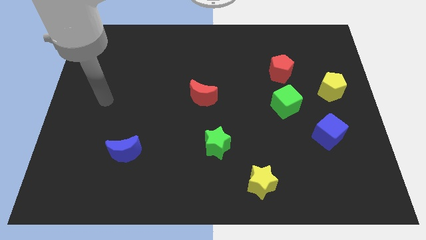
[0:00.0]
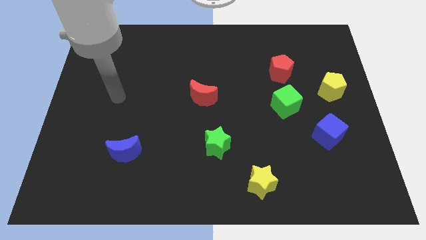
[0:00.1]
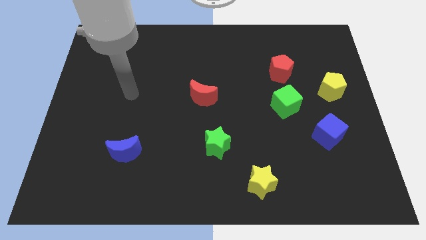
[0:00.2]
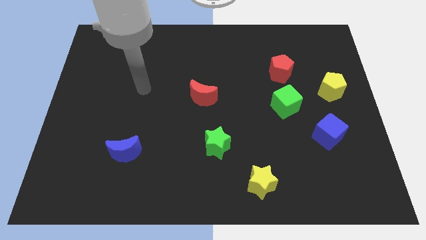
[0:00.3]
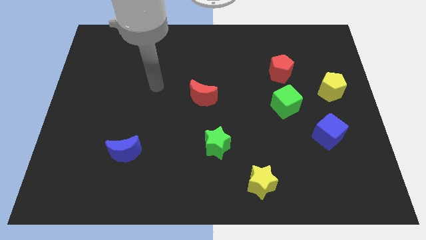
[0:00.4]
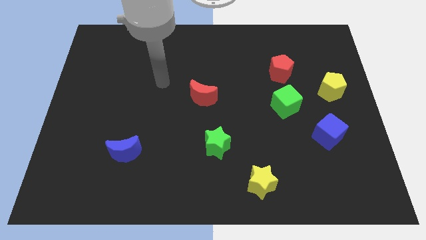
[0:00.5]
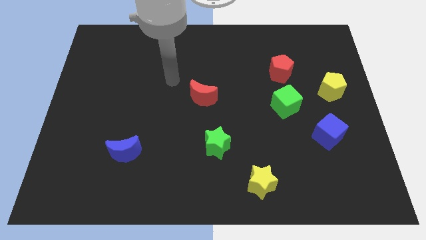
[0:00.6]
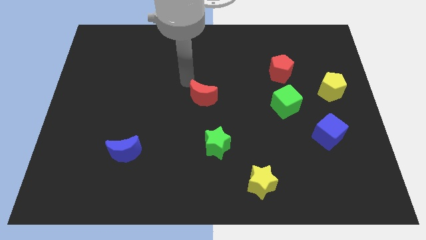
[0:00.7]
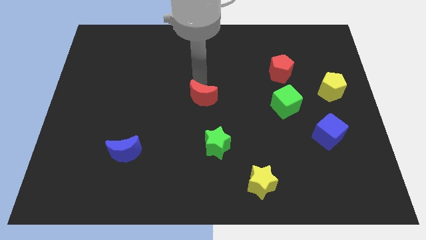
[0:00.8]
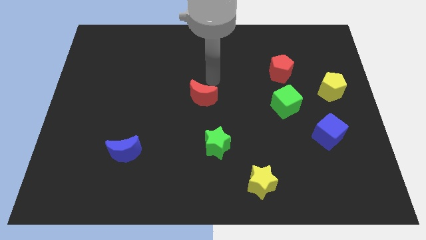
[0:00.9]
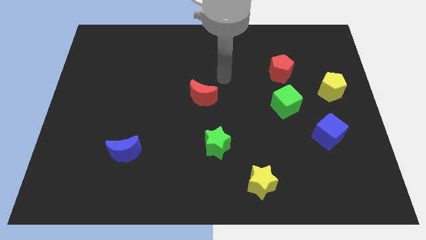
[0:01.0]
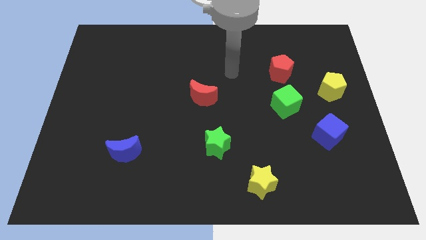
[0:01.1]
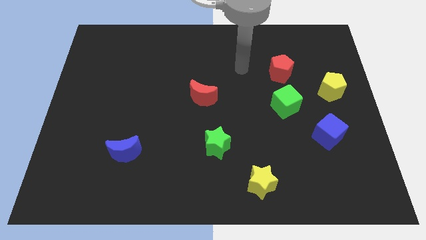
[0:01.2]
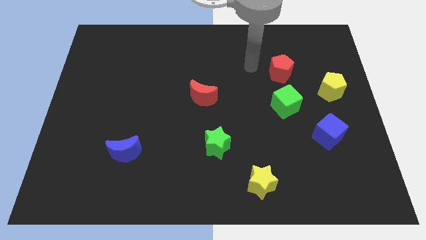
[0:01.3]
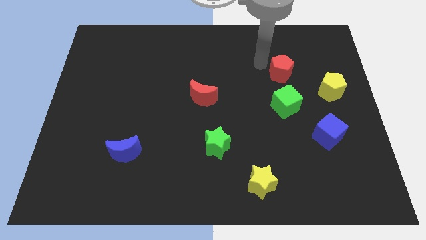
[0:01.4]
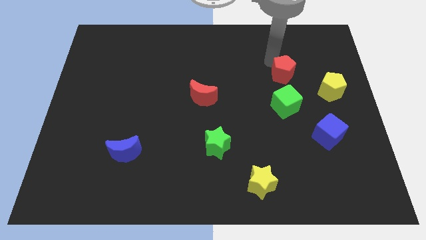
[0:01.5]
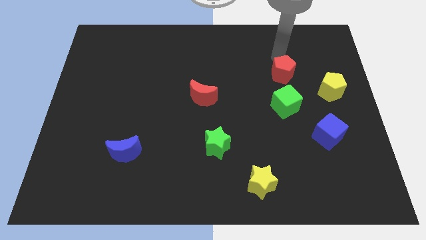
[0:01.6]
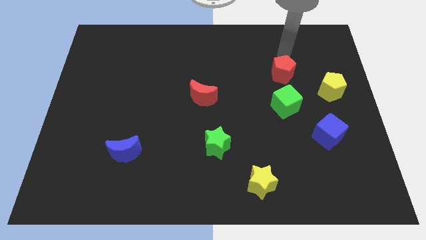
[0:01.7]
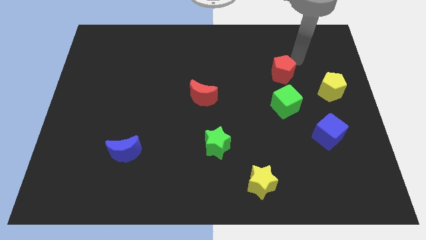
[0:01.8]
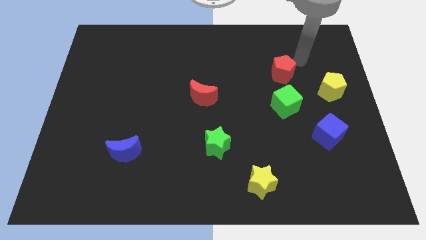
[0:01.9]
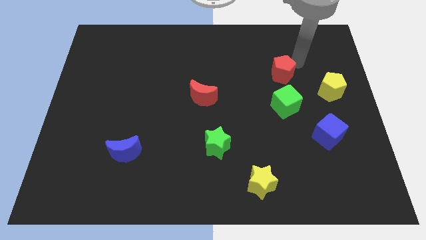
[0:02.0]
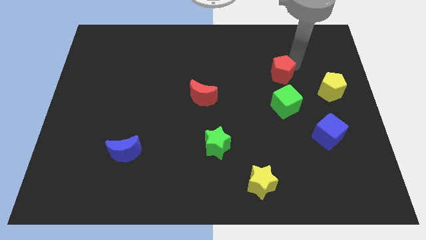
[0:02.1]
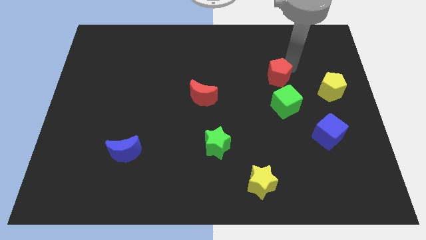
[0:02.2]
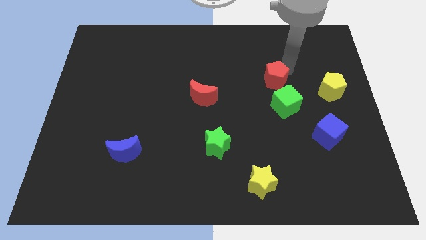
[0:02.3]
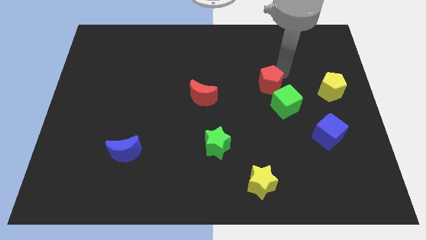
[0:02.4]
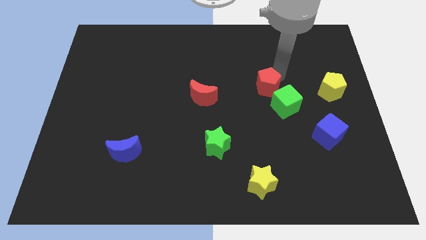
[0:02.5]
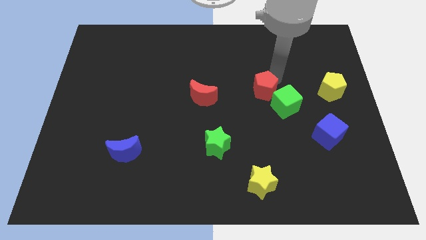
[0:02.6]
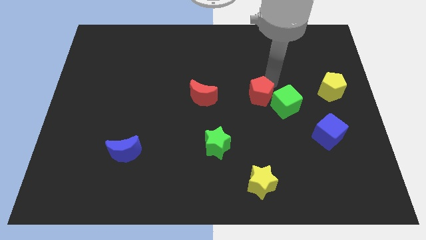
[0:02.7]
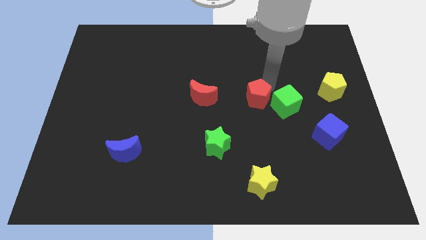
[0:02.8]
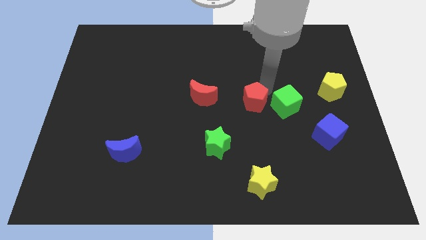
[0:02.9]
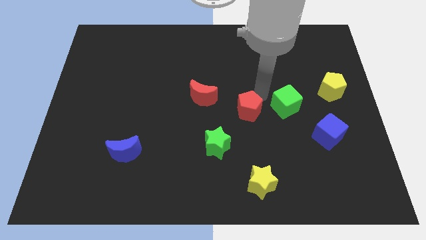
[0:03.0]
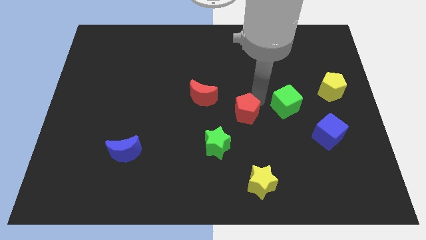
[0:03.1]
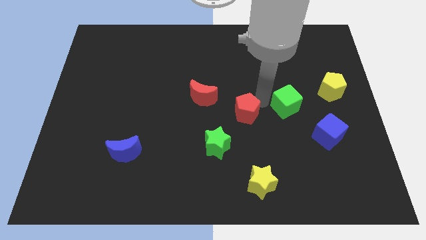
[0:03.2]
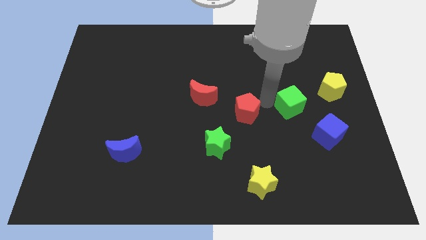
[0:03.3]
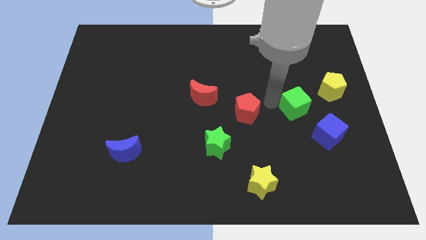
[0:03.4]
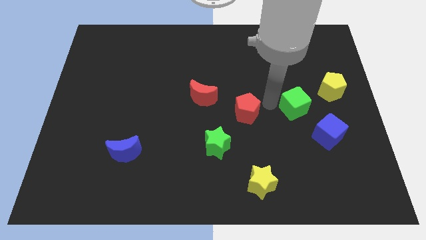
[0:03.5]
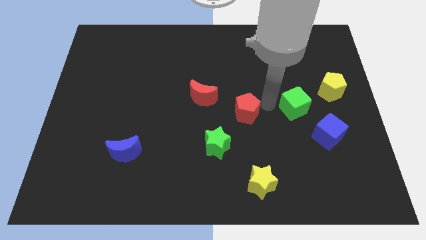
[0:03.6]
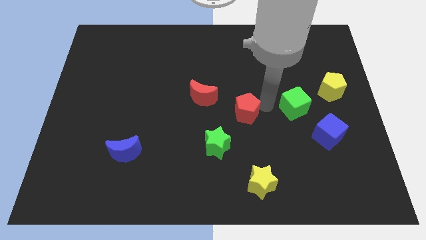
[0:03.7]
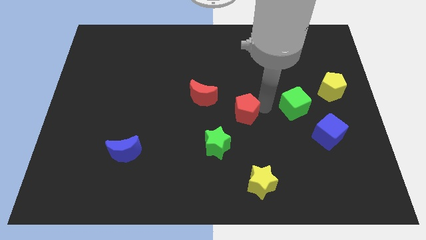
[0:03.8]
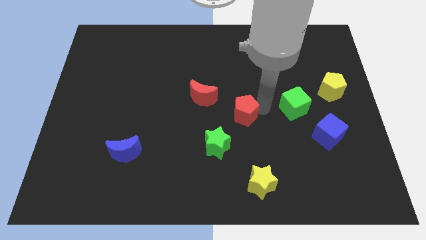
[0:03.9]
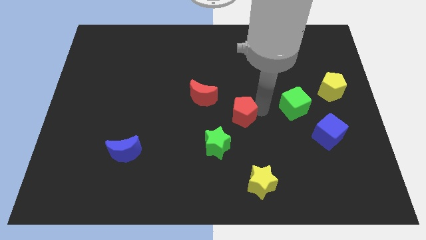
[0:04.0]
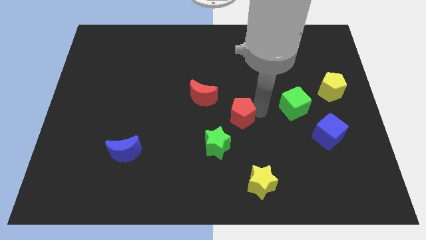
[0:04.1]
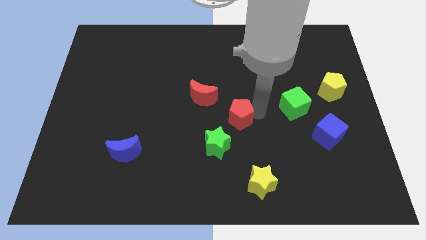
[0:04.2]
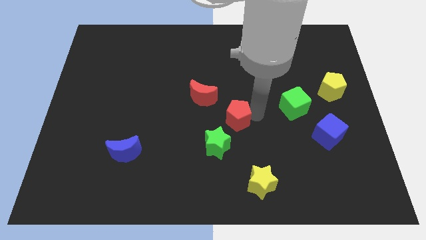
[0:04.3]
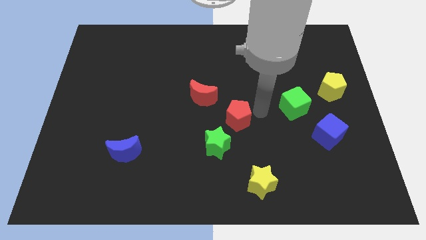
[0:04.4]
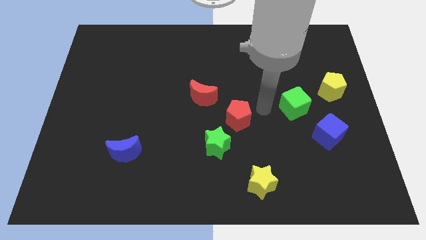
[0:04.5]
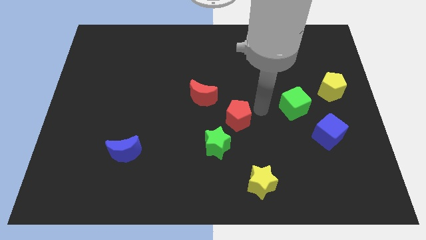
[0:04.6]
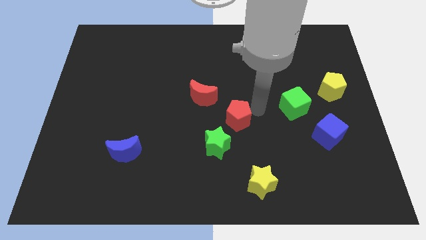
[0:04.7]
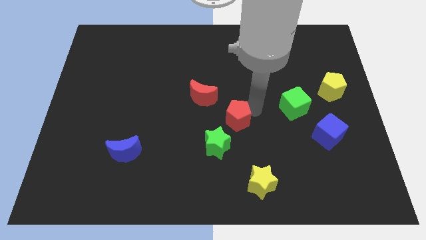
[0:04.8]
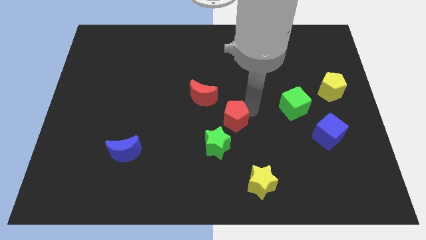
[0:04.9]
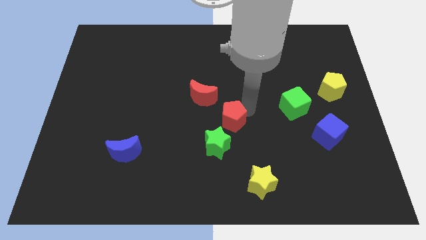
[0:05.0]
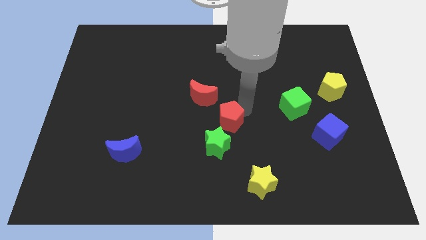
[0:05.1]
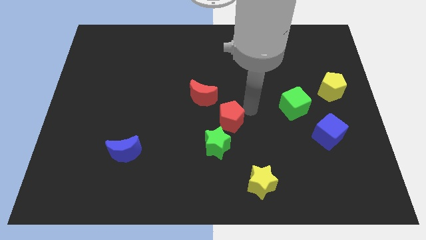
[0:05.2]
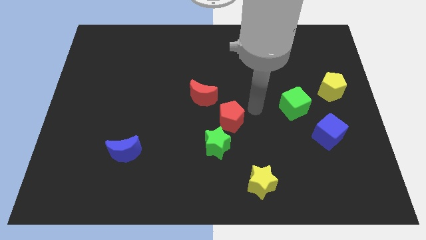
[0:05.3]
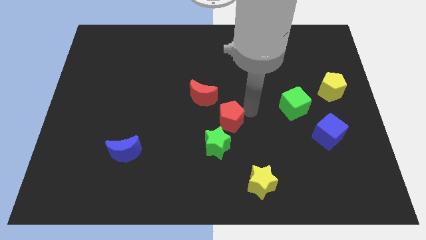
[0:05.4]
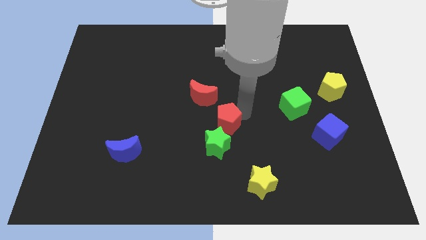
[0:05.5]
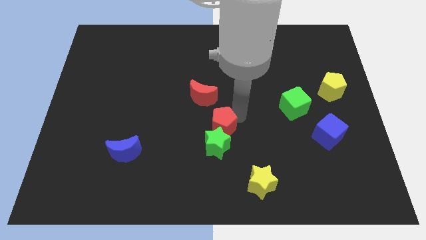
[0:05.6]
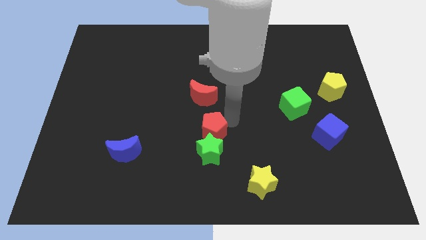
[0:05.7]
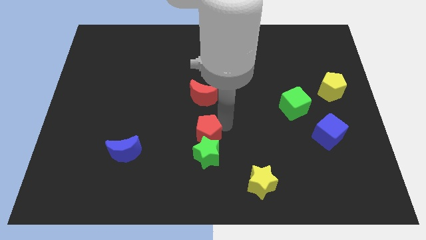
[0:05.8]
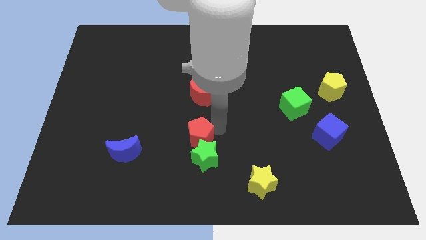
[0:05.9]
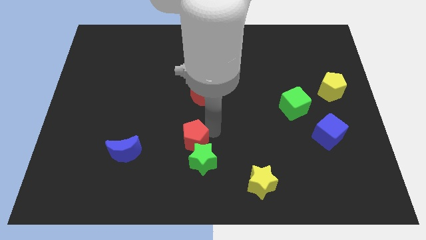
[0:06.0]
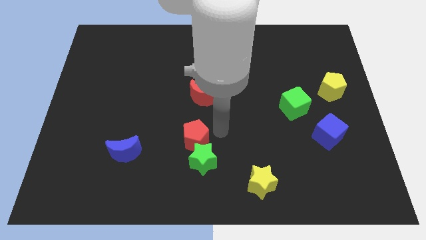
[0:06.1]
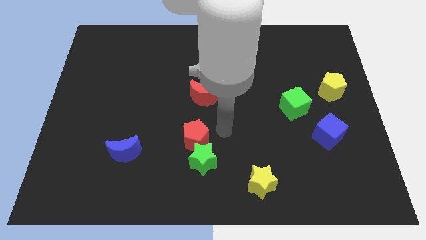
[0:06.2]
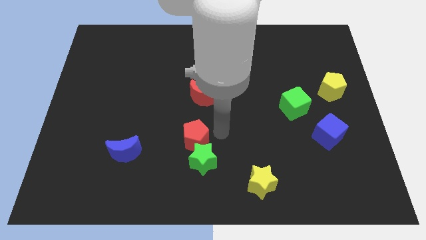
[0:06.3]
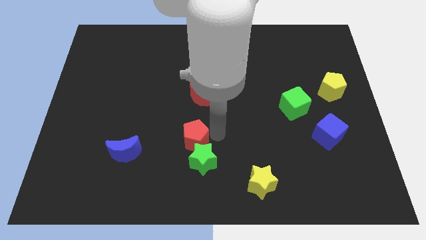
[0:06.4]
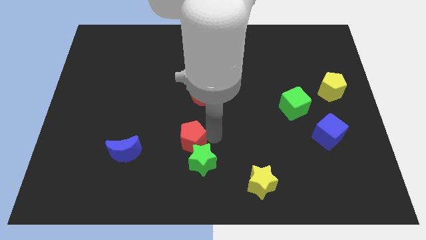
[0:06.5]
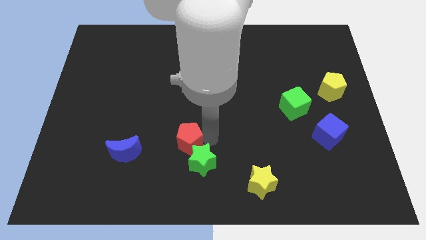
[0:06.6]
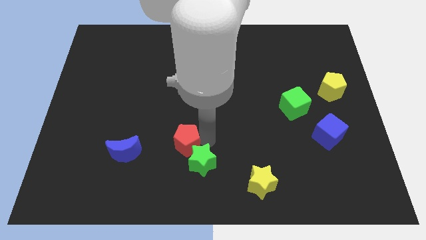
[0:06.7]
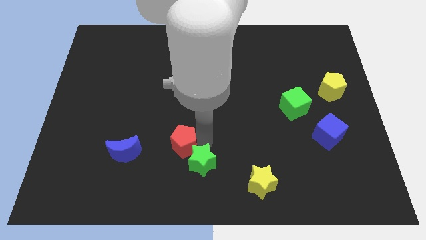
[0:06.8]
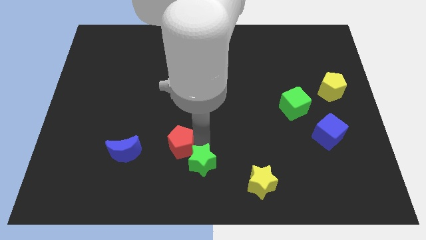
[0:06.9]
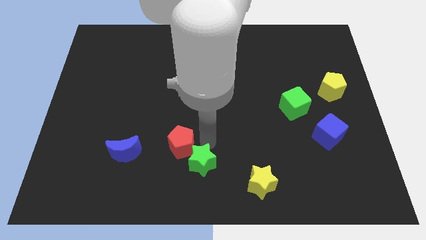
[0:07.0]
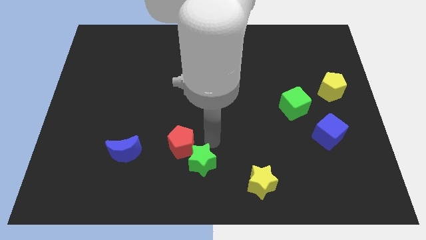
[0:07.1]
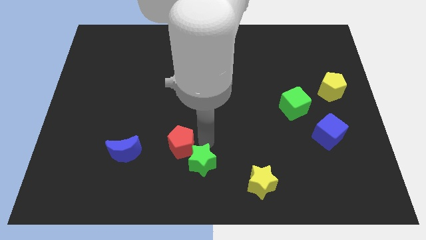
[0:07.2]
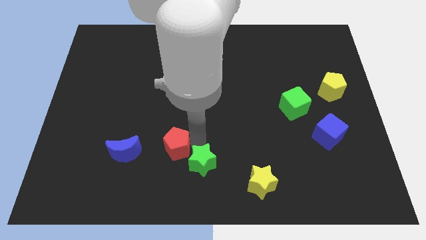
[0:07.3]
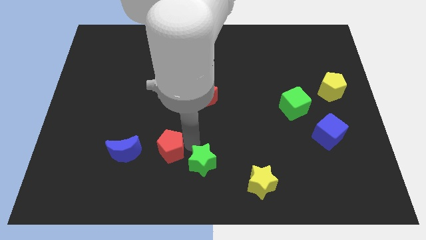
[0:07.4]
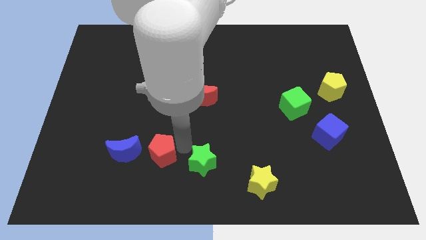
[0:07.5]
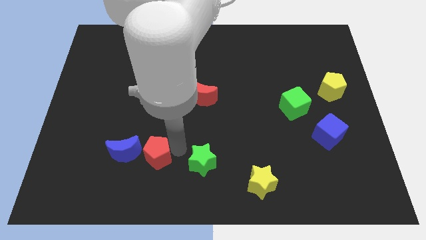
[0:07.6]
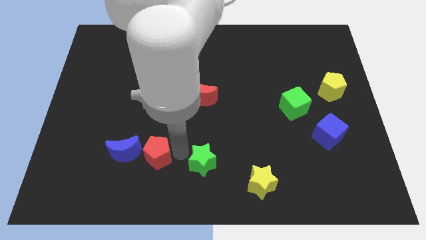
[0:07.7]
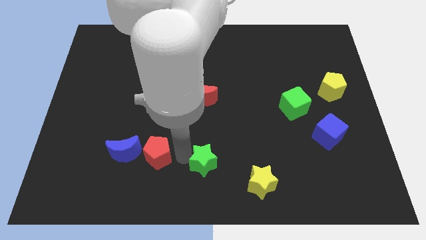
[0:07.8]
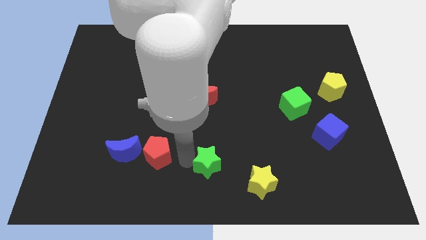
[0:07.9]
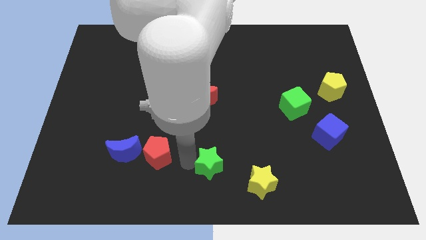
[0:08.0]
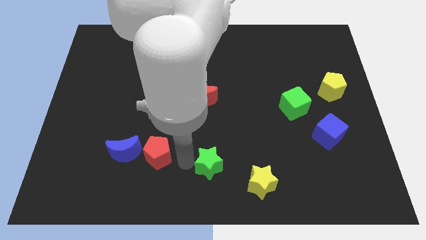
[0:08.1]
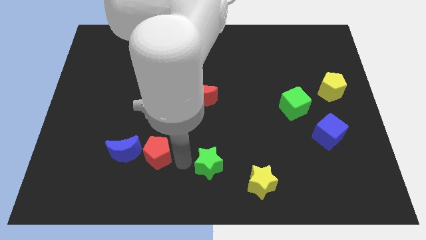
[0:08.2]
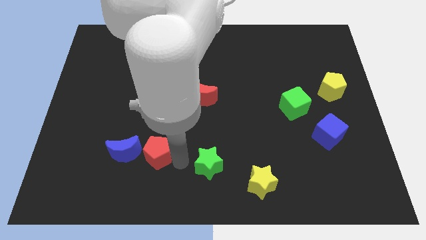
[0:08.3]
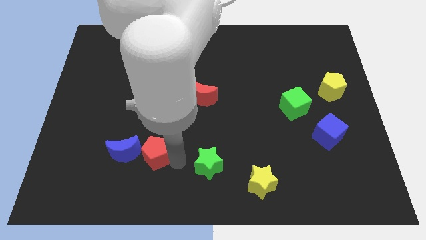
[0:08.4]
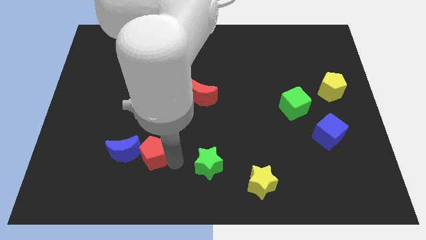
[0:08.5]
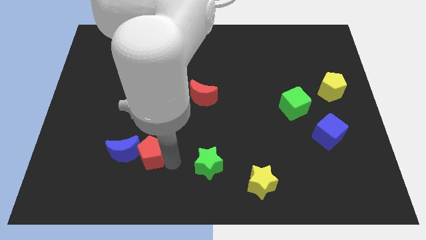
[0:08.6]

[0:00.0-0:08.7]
slide the red pentagon to the blue moon
